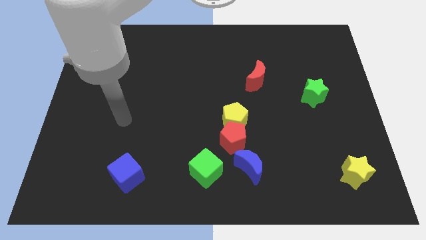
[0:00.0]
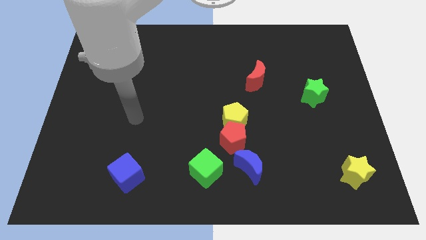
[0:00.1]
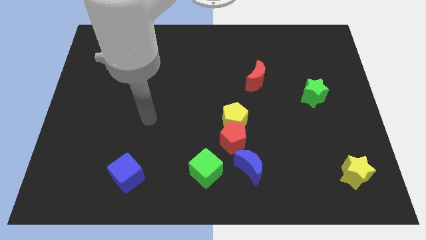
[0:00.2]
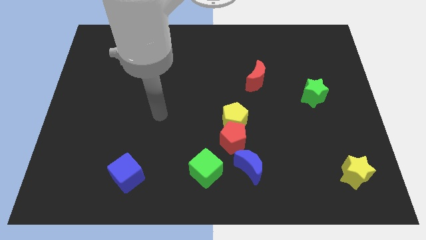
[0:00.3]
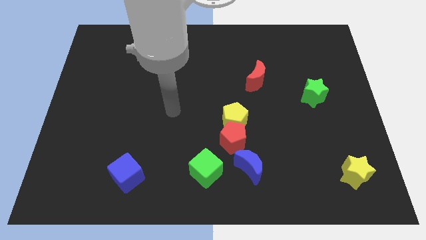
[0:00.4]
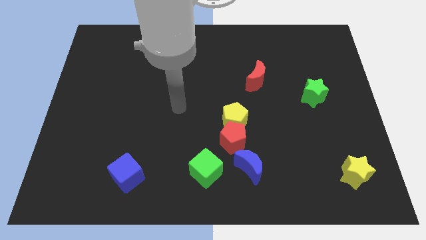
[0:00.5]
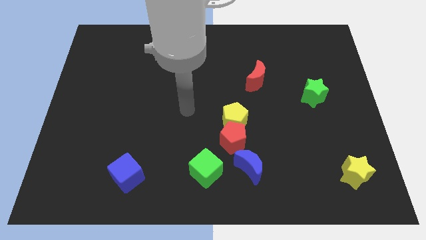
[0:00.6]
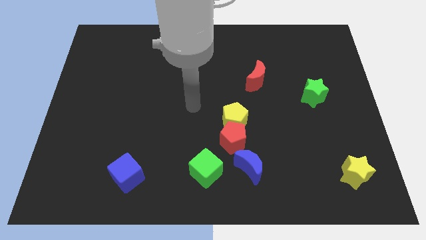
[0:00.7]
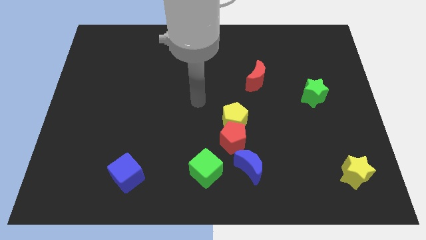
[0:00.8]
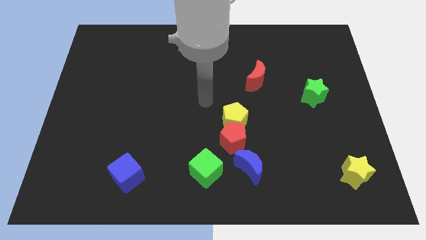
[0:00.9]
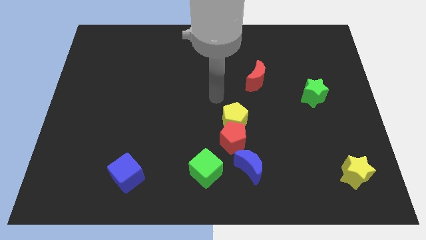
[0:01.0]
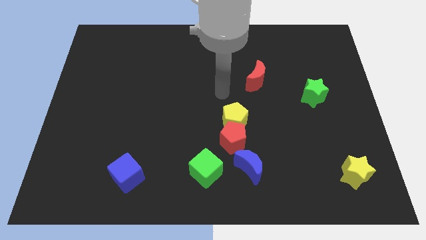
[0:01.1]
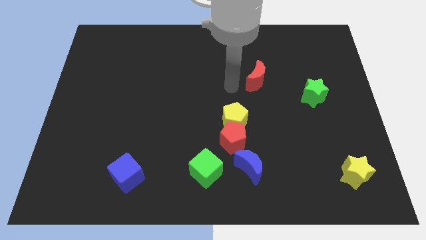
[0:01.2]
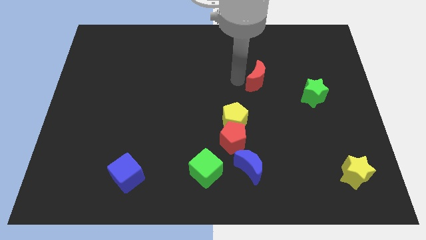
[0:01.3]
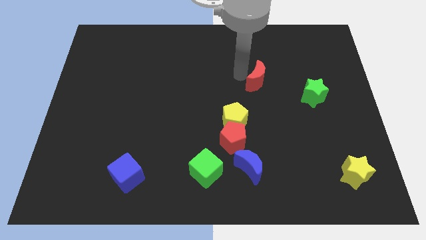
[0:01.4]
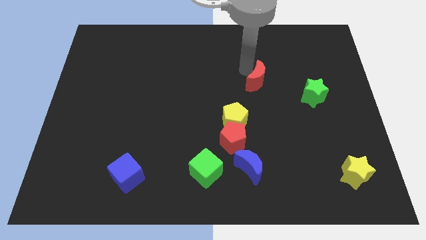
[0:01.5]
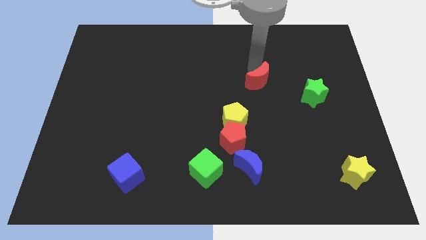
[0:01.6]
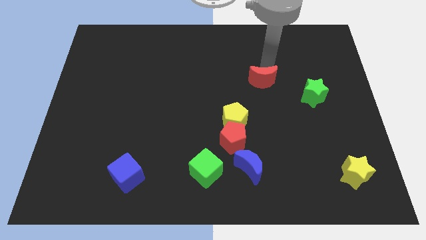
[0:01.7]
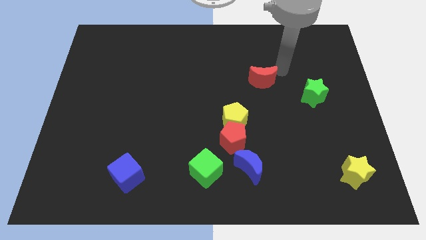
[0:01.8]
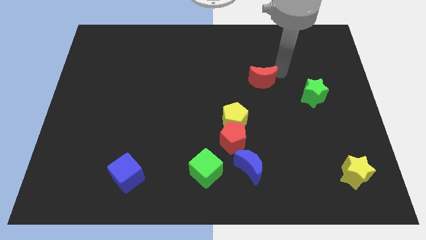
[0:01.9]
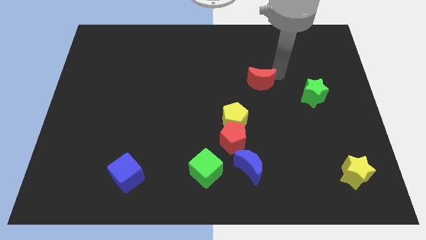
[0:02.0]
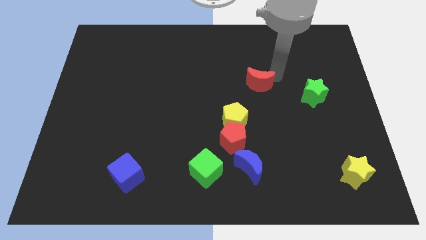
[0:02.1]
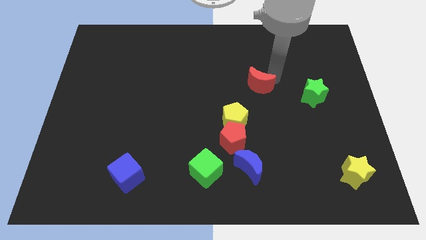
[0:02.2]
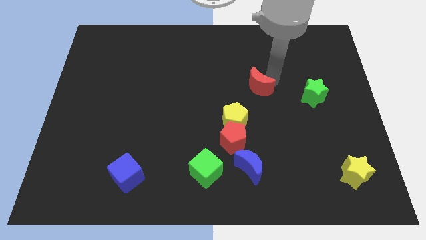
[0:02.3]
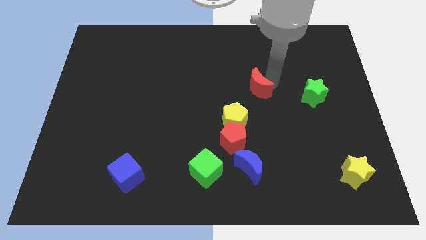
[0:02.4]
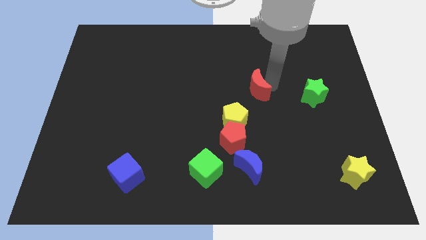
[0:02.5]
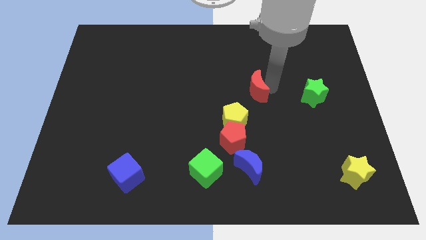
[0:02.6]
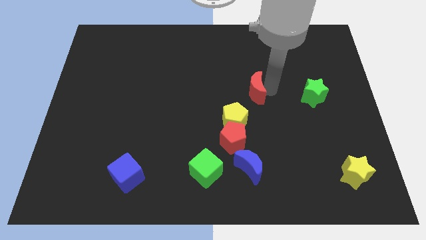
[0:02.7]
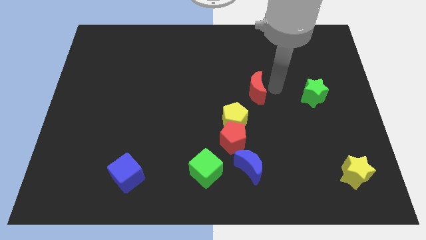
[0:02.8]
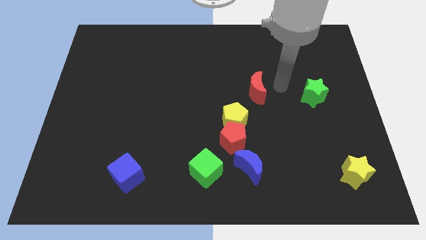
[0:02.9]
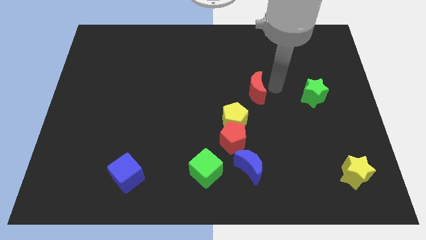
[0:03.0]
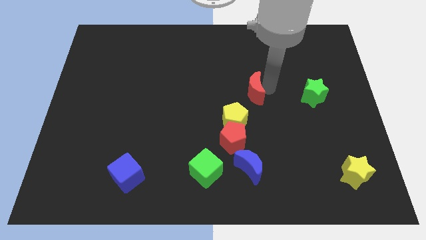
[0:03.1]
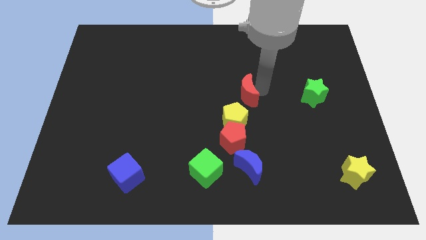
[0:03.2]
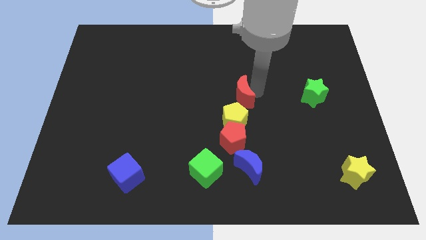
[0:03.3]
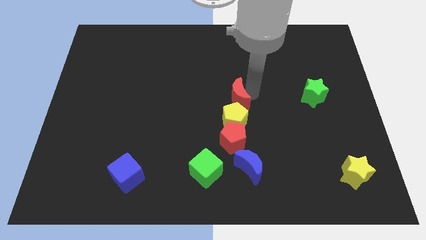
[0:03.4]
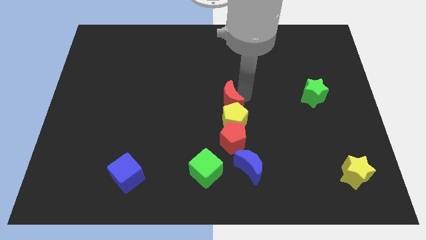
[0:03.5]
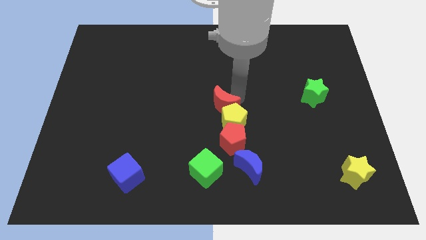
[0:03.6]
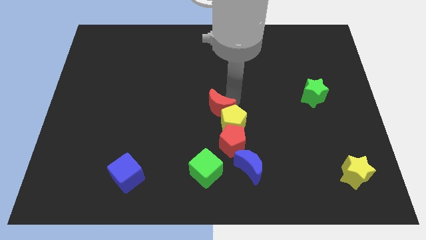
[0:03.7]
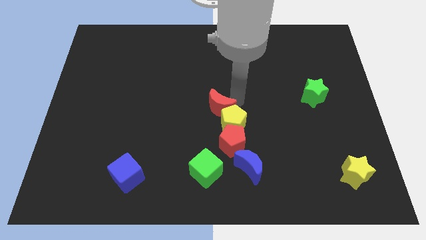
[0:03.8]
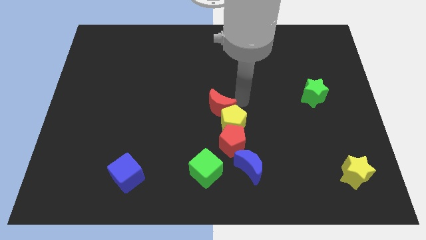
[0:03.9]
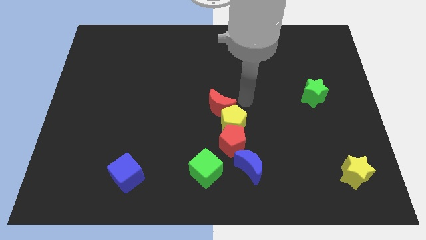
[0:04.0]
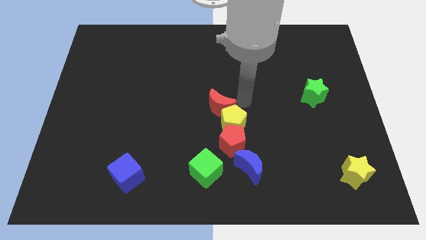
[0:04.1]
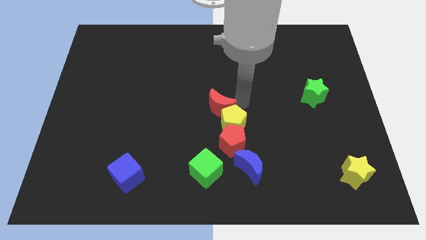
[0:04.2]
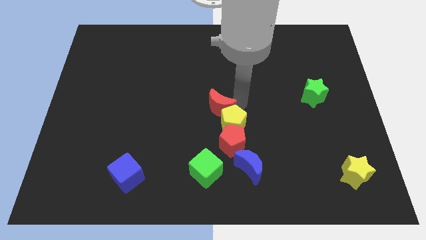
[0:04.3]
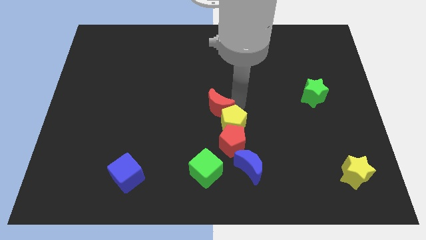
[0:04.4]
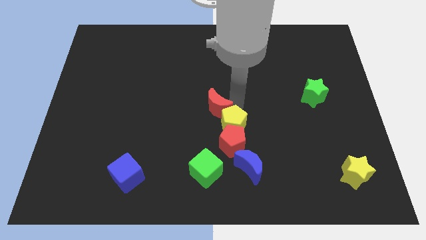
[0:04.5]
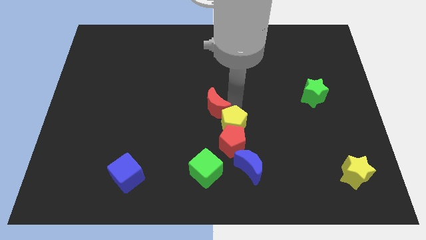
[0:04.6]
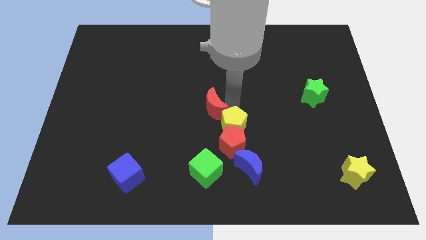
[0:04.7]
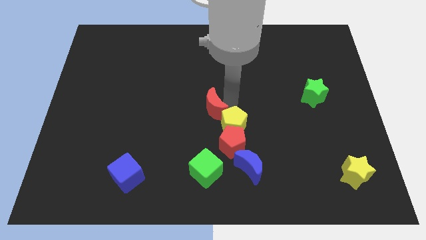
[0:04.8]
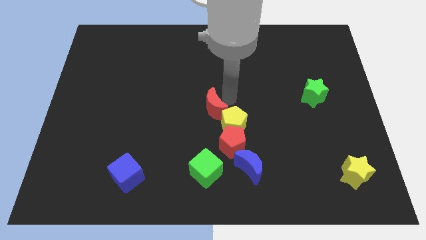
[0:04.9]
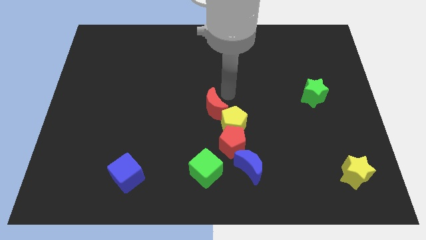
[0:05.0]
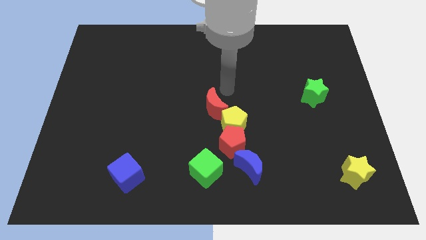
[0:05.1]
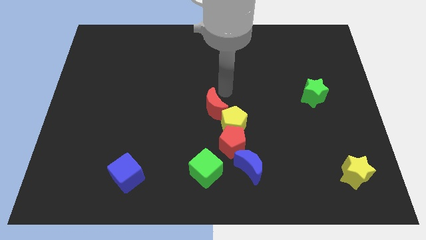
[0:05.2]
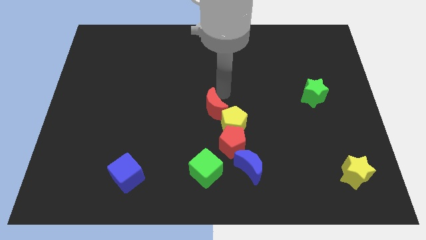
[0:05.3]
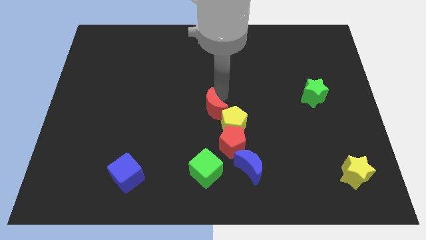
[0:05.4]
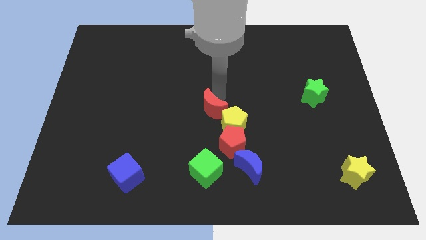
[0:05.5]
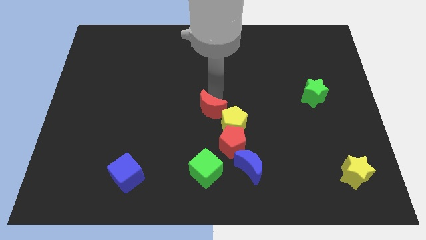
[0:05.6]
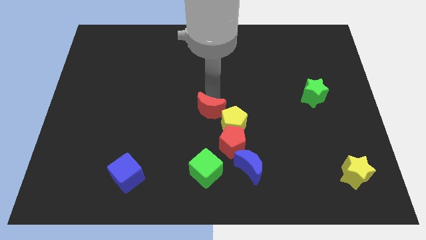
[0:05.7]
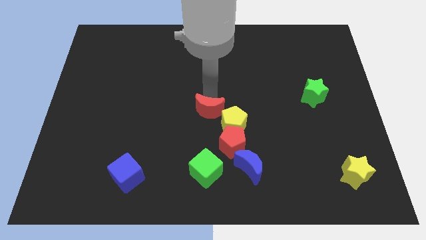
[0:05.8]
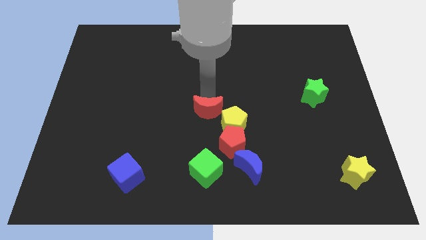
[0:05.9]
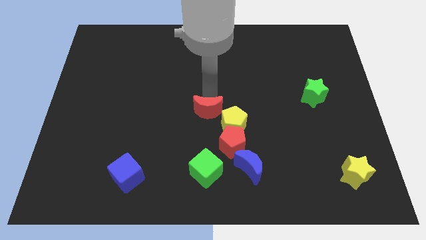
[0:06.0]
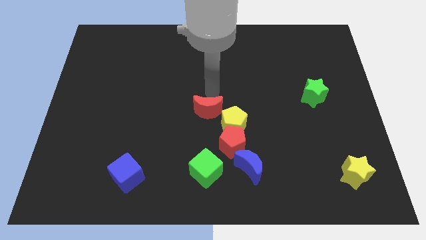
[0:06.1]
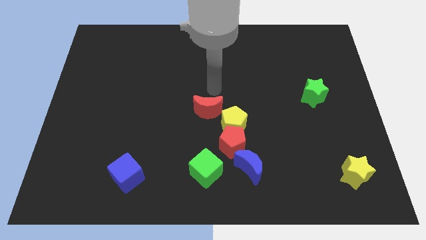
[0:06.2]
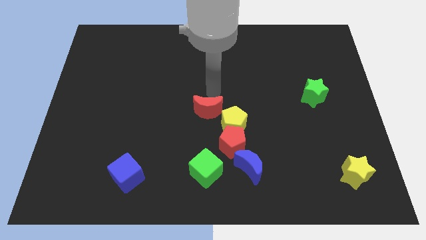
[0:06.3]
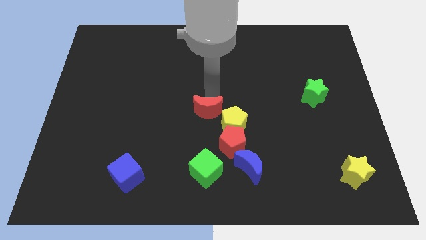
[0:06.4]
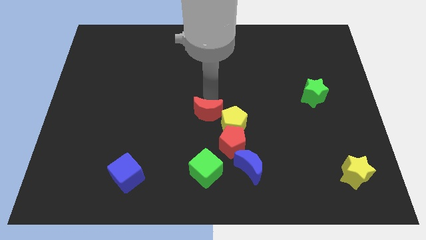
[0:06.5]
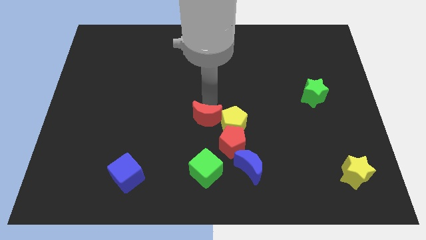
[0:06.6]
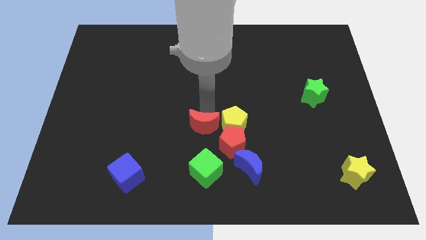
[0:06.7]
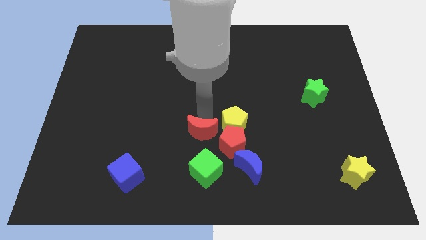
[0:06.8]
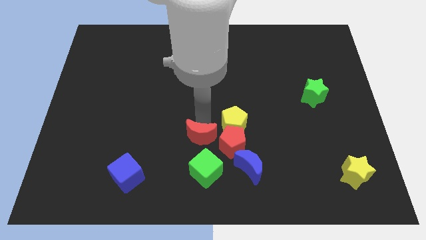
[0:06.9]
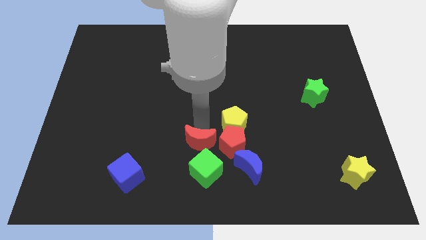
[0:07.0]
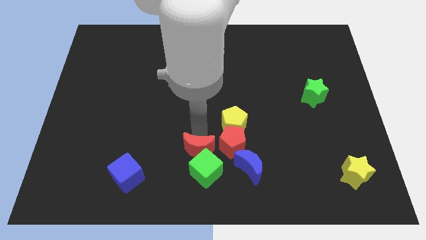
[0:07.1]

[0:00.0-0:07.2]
move the red moon next to the green cube
